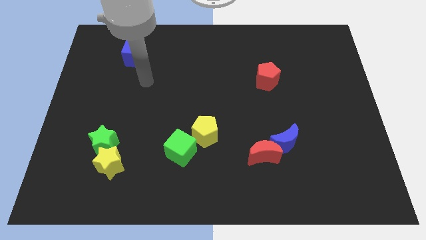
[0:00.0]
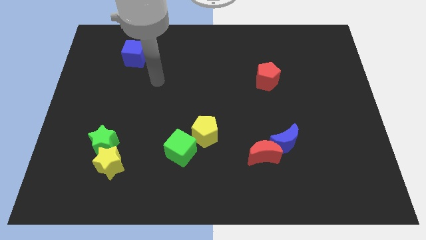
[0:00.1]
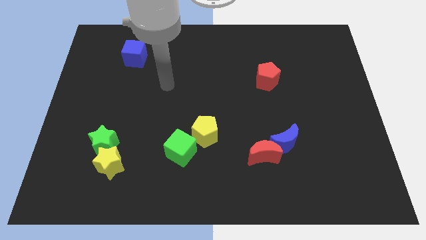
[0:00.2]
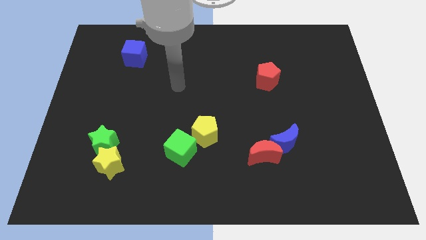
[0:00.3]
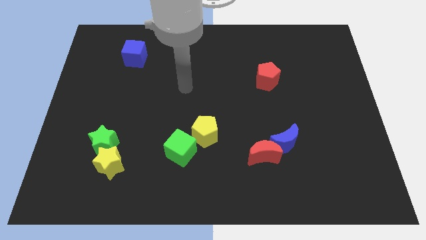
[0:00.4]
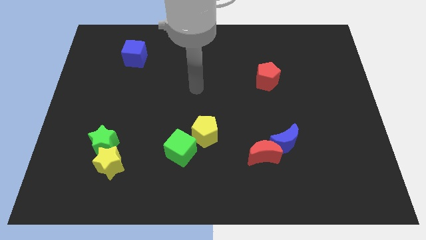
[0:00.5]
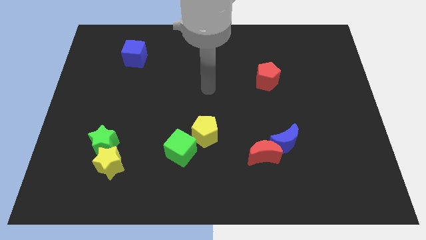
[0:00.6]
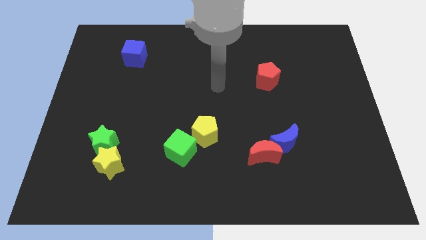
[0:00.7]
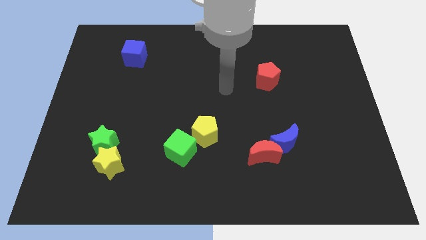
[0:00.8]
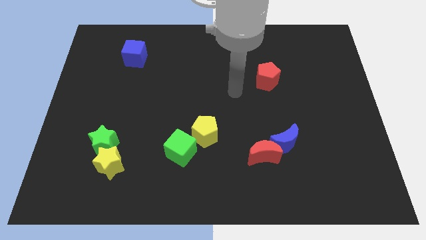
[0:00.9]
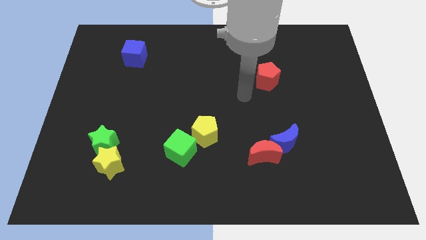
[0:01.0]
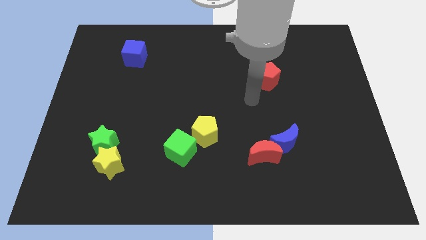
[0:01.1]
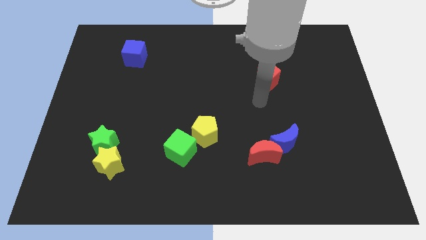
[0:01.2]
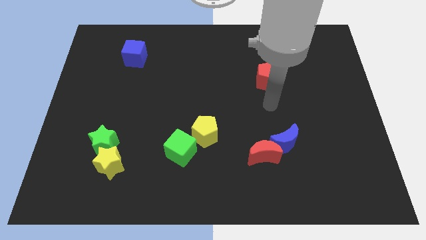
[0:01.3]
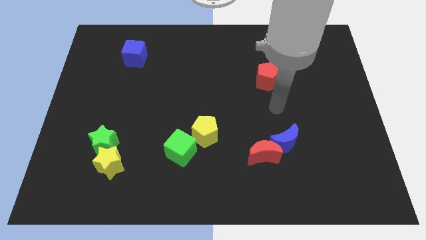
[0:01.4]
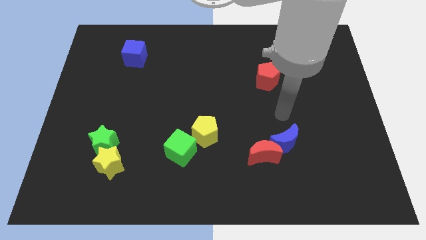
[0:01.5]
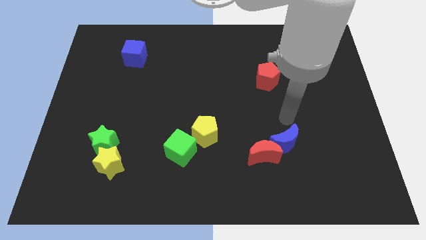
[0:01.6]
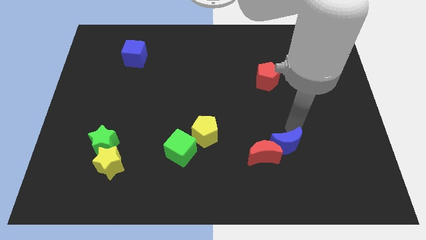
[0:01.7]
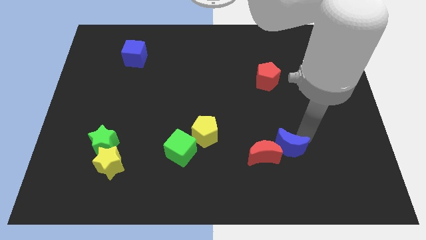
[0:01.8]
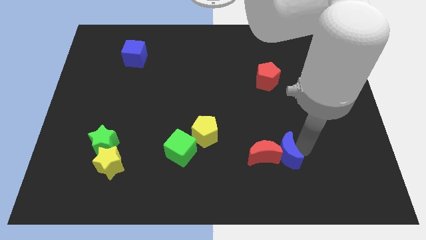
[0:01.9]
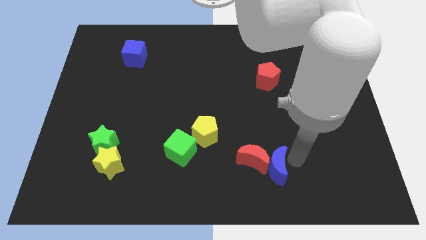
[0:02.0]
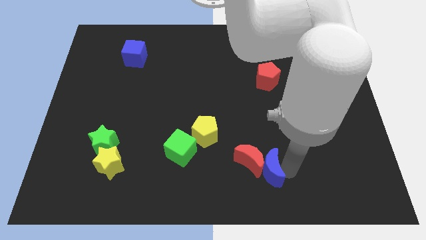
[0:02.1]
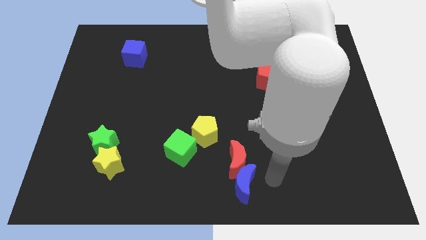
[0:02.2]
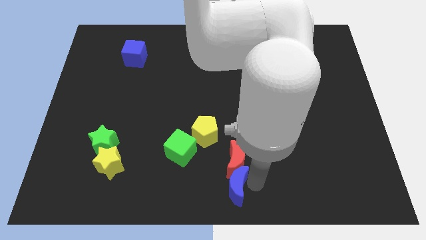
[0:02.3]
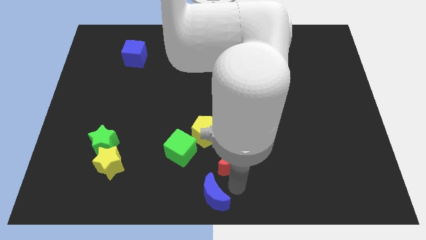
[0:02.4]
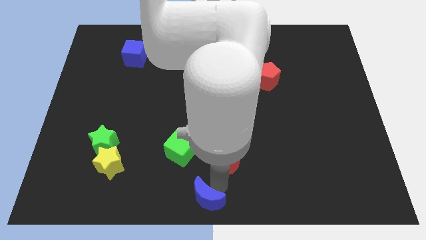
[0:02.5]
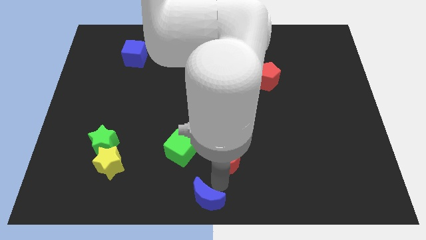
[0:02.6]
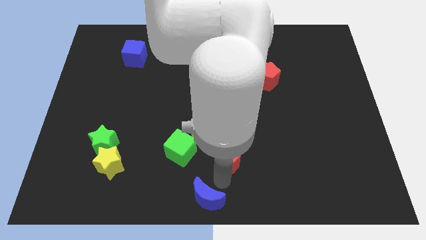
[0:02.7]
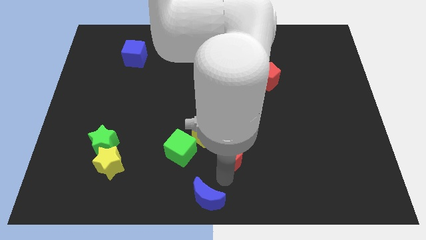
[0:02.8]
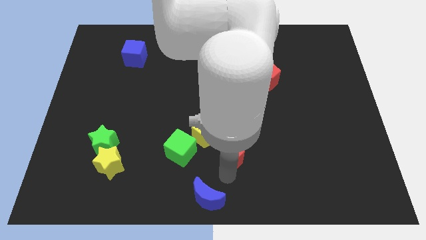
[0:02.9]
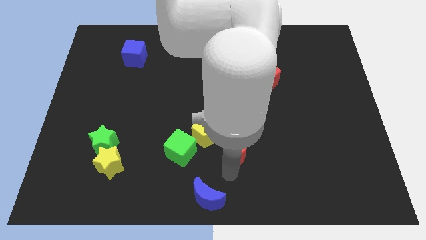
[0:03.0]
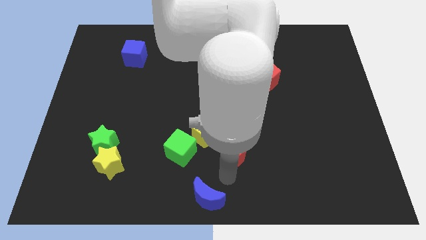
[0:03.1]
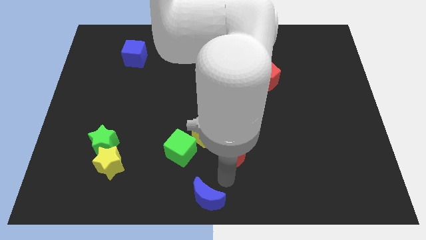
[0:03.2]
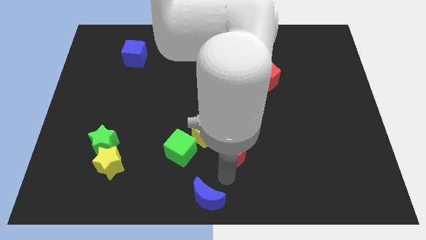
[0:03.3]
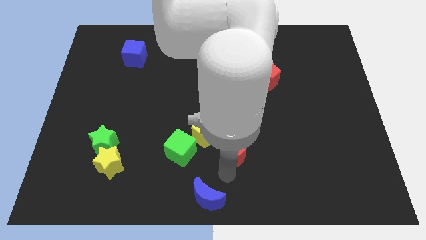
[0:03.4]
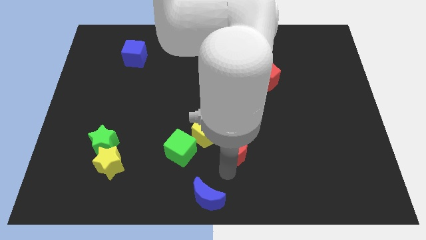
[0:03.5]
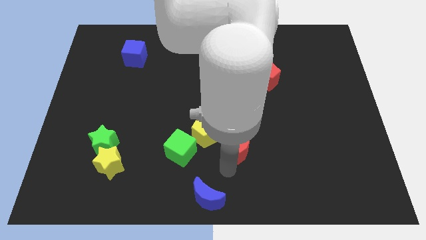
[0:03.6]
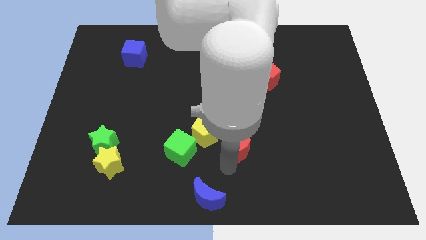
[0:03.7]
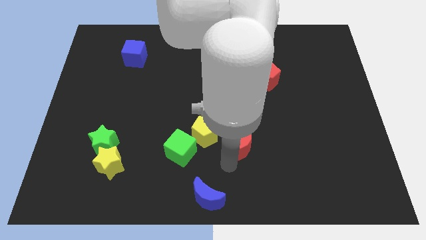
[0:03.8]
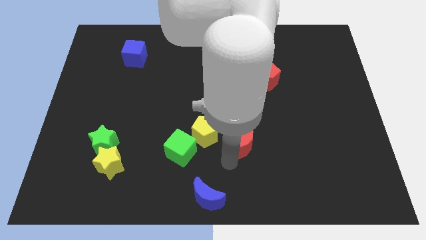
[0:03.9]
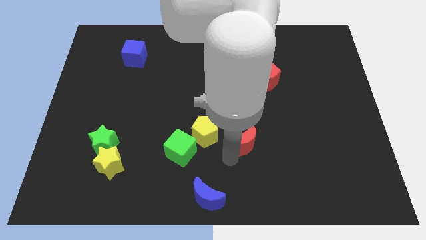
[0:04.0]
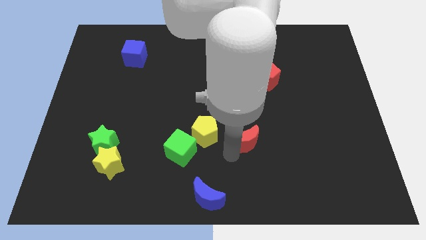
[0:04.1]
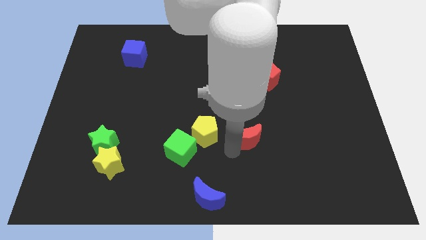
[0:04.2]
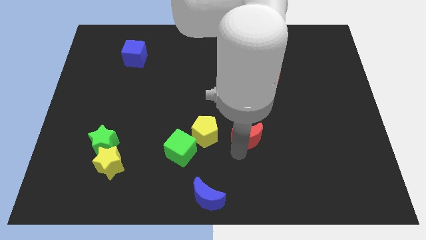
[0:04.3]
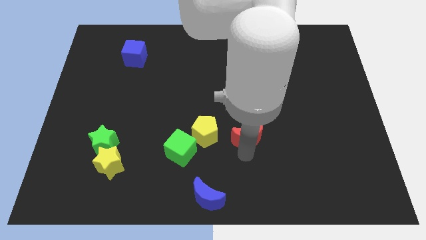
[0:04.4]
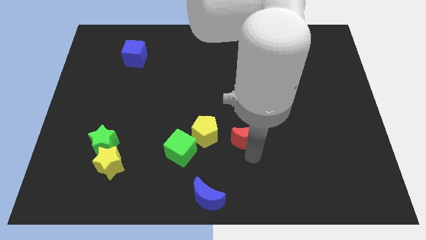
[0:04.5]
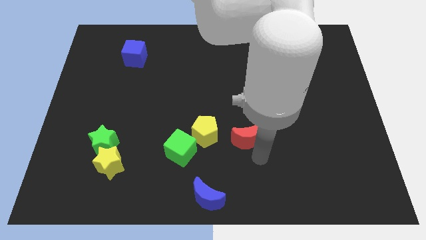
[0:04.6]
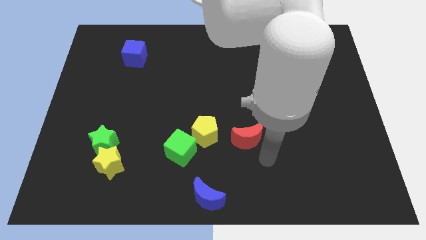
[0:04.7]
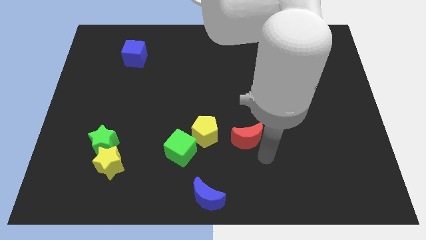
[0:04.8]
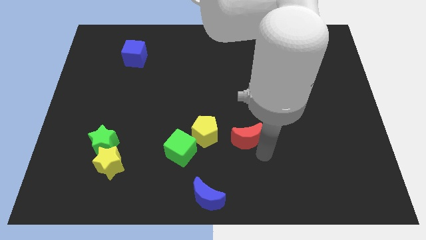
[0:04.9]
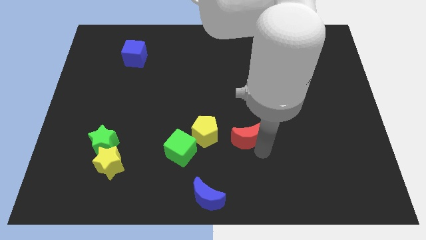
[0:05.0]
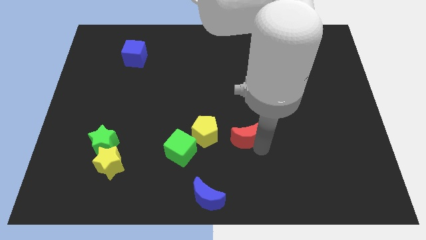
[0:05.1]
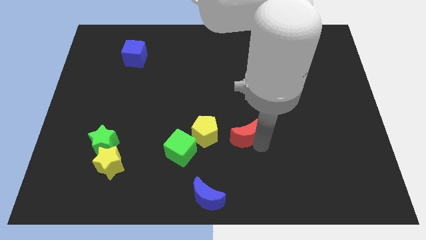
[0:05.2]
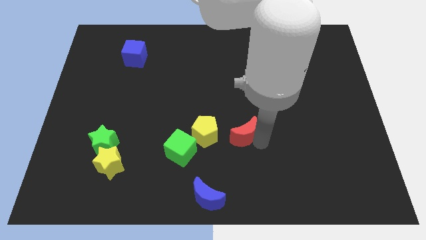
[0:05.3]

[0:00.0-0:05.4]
move the red moon to the middle of the board

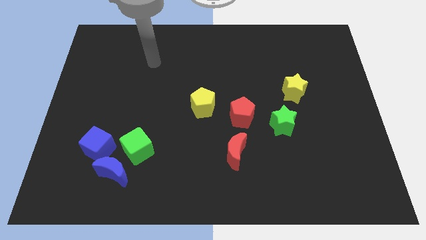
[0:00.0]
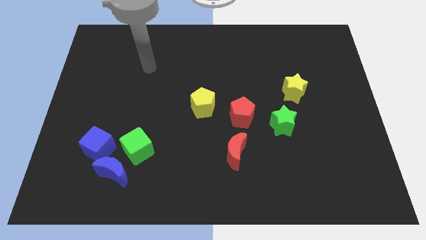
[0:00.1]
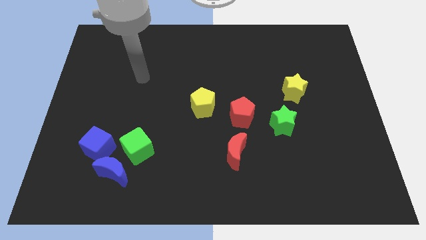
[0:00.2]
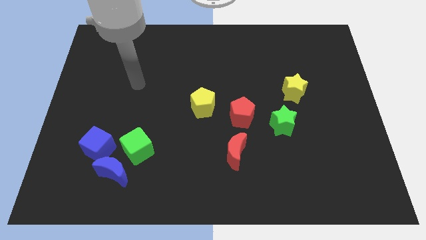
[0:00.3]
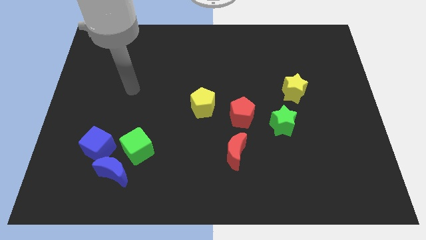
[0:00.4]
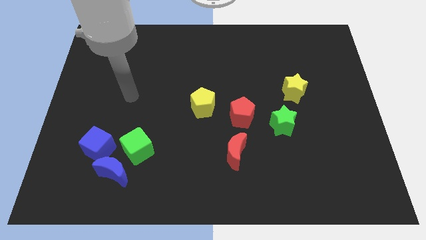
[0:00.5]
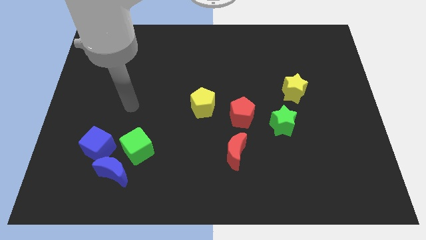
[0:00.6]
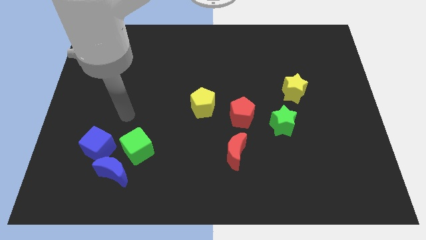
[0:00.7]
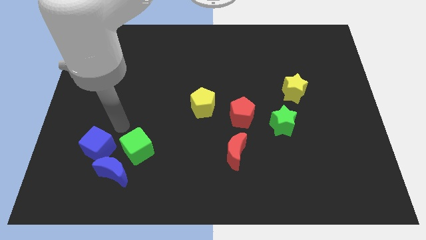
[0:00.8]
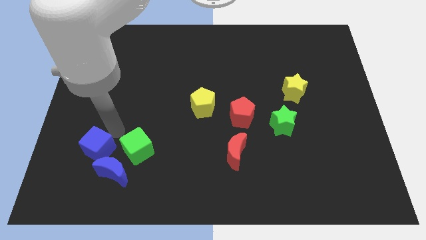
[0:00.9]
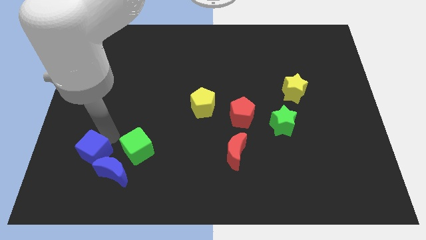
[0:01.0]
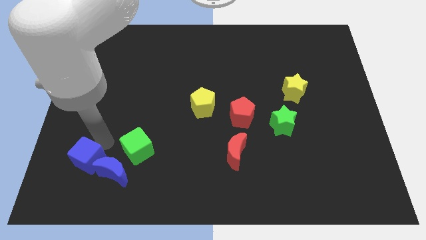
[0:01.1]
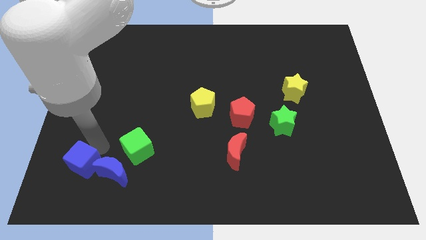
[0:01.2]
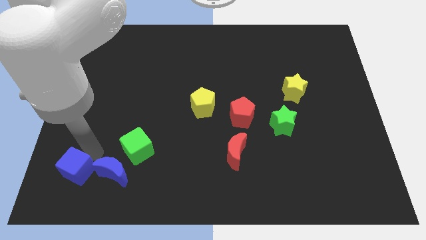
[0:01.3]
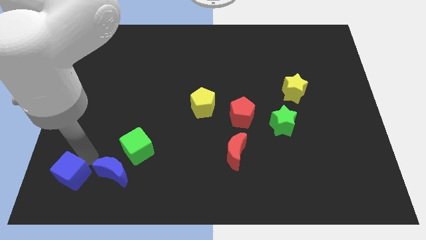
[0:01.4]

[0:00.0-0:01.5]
push the blue cube to the bottom left corner
